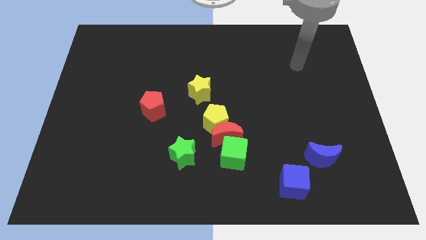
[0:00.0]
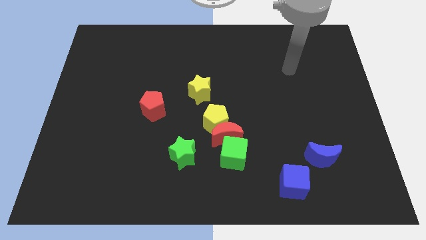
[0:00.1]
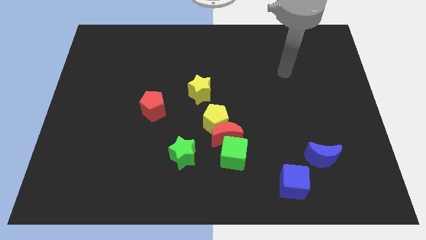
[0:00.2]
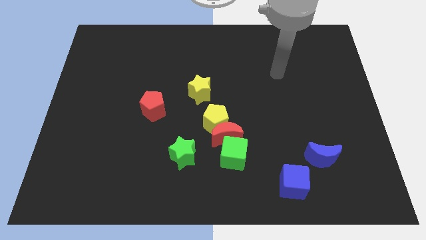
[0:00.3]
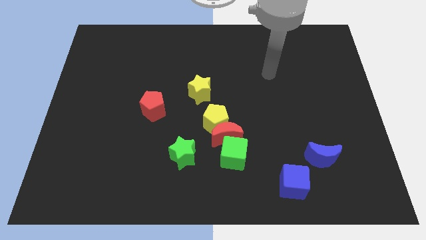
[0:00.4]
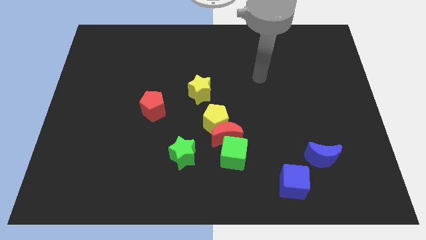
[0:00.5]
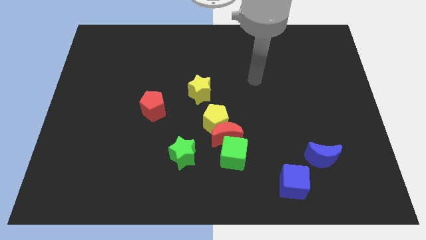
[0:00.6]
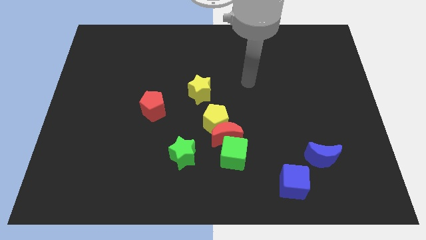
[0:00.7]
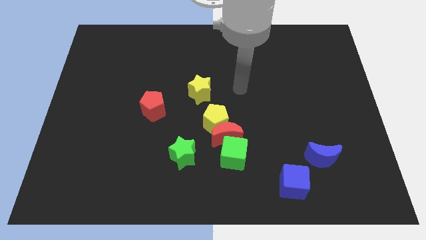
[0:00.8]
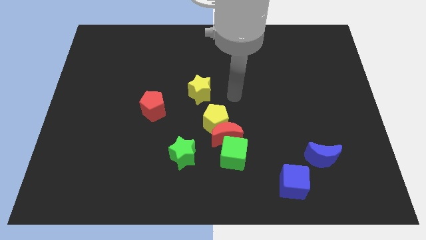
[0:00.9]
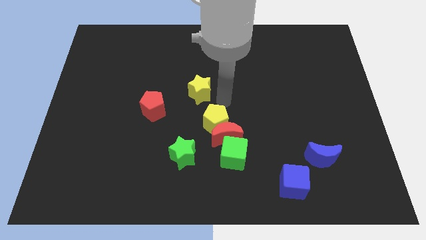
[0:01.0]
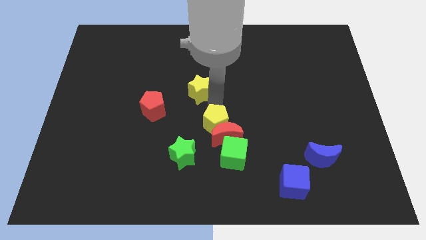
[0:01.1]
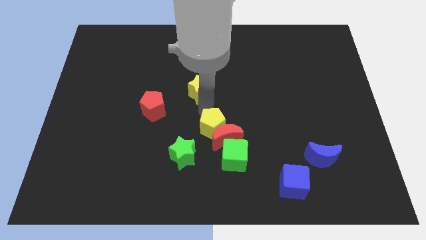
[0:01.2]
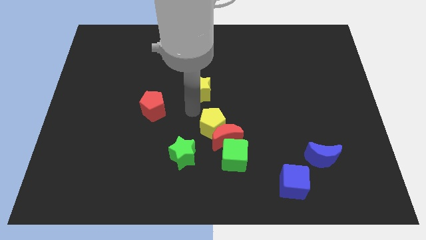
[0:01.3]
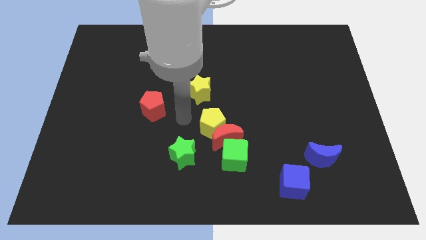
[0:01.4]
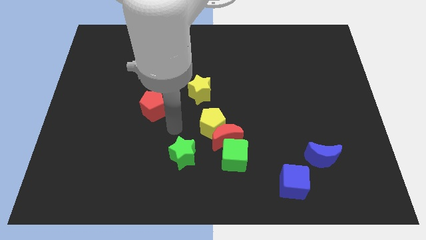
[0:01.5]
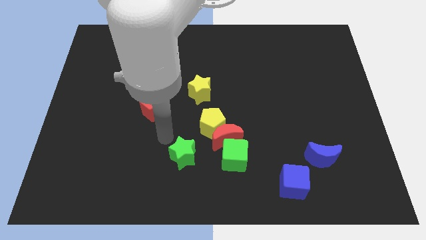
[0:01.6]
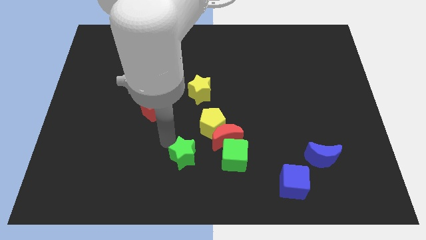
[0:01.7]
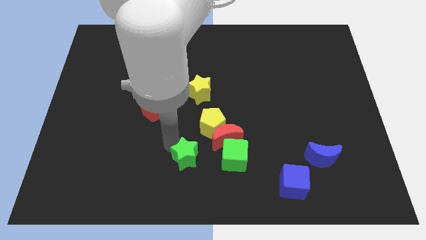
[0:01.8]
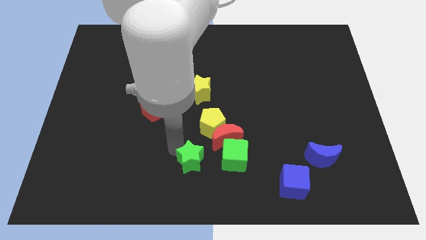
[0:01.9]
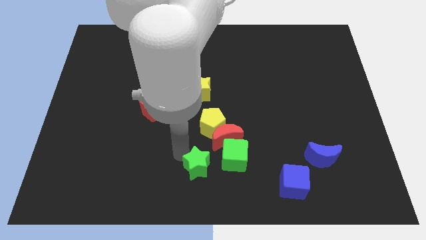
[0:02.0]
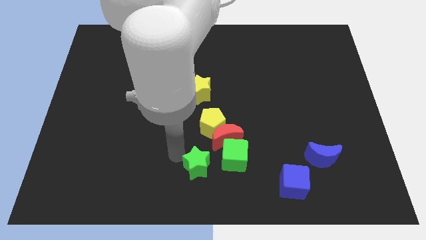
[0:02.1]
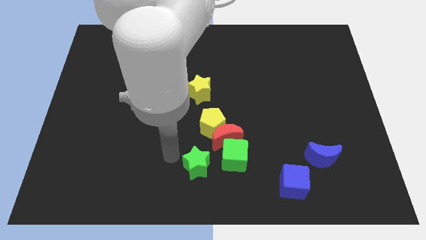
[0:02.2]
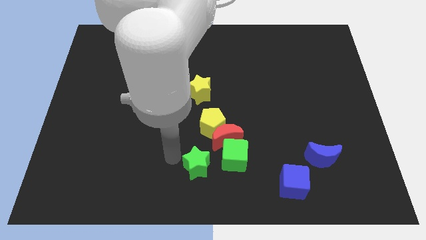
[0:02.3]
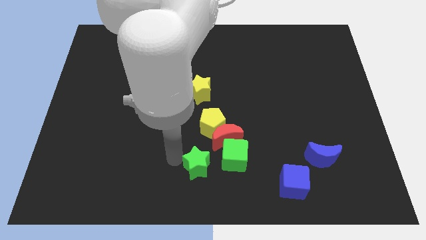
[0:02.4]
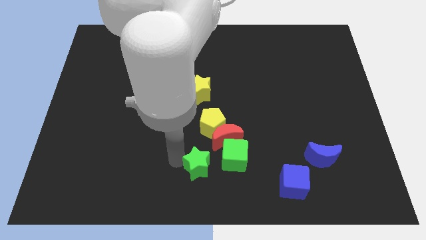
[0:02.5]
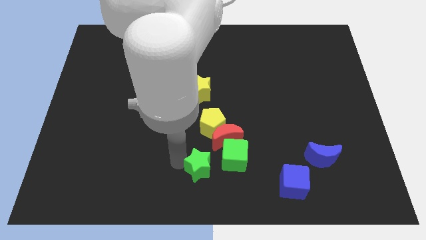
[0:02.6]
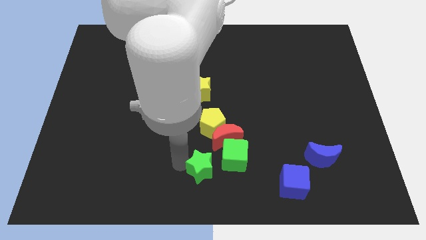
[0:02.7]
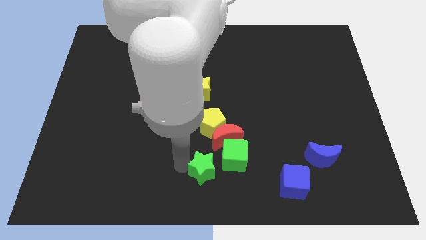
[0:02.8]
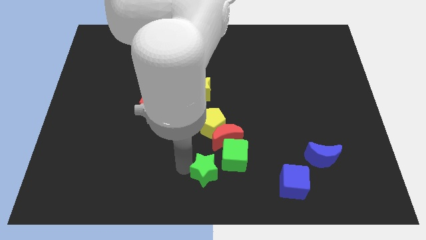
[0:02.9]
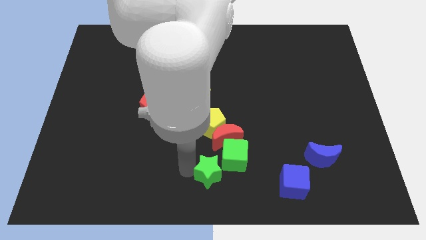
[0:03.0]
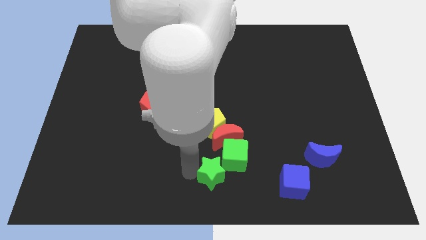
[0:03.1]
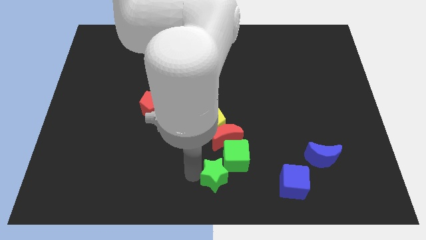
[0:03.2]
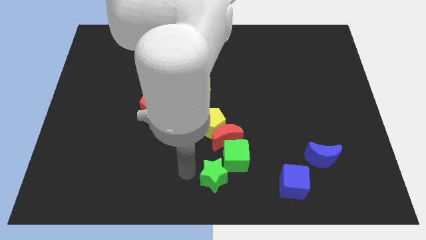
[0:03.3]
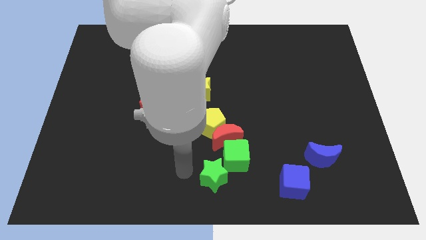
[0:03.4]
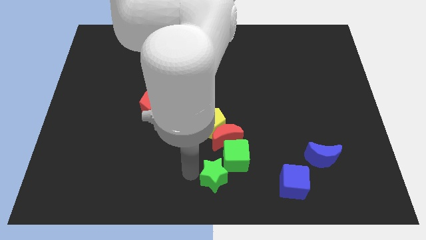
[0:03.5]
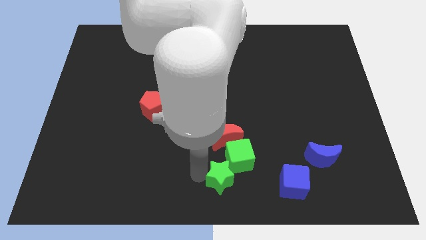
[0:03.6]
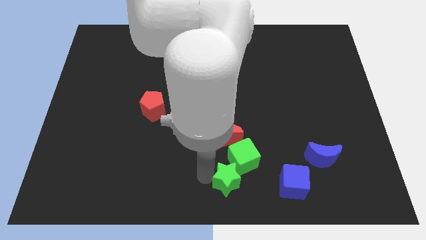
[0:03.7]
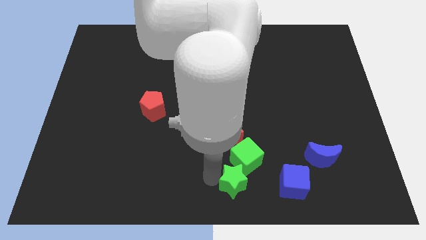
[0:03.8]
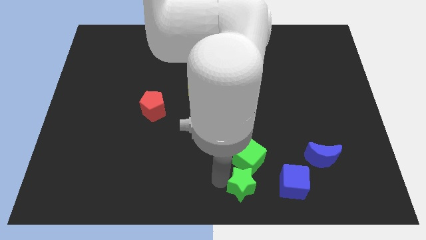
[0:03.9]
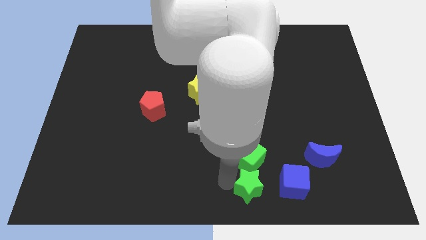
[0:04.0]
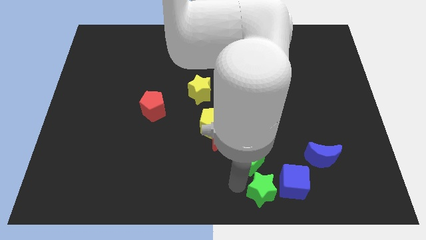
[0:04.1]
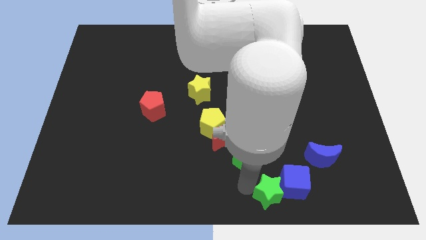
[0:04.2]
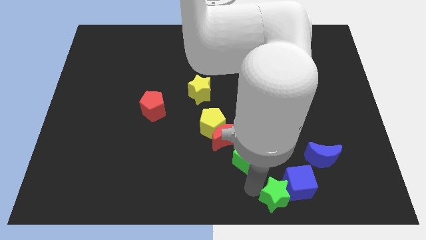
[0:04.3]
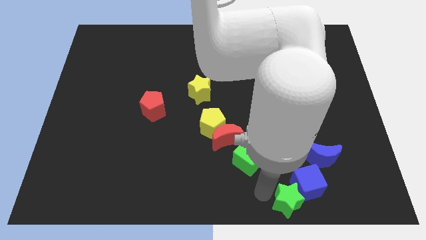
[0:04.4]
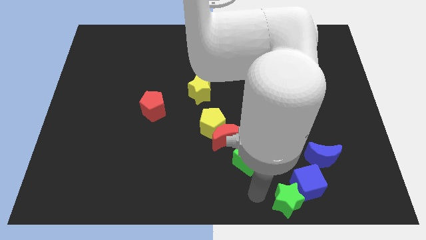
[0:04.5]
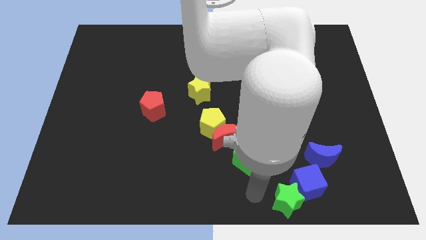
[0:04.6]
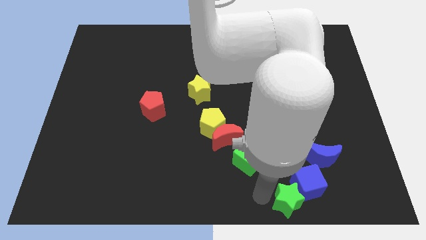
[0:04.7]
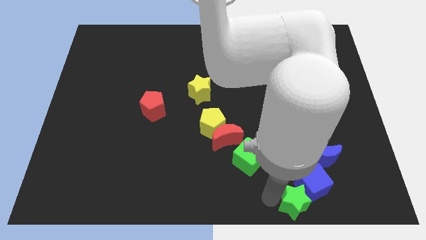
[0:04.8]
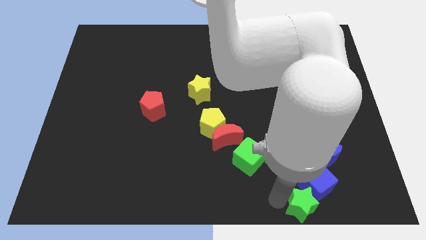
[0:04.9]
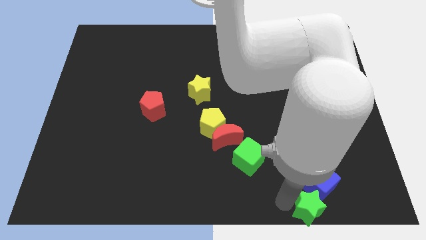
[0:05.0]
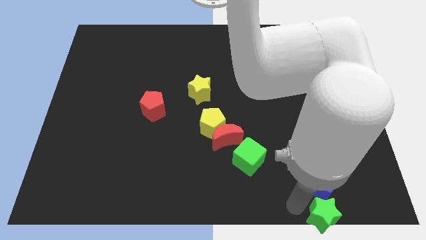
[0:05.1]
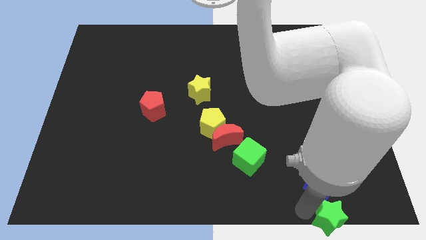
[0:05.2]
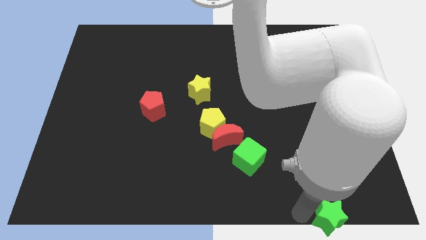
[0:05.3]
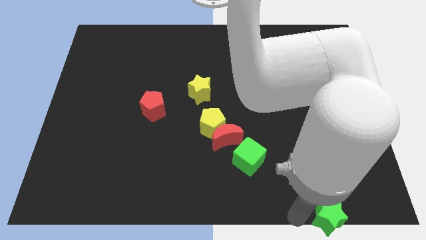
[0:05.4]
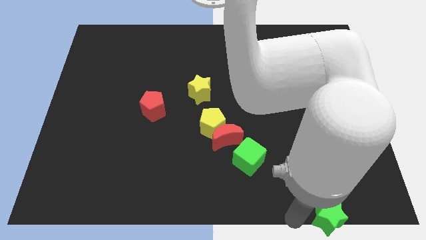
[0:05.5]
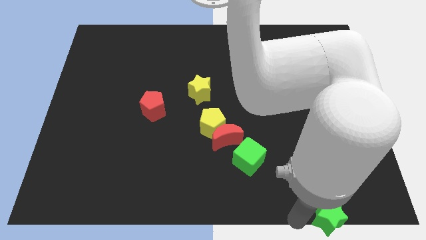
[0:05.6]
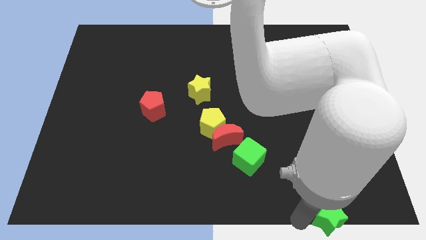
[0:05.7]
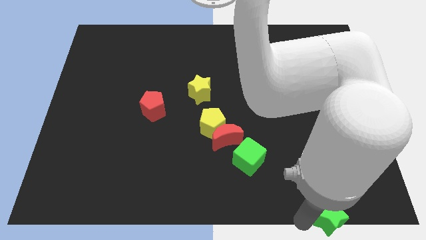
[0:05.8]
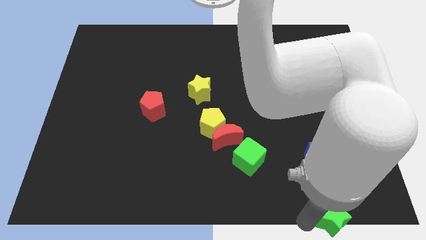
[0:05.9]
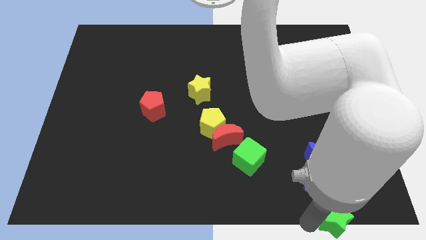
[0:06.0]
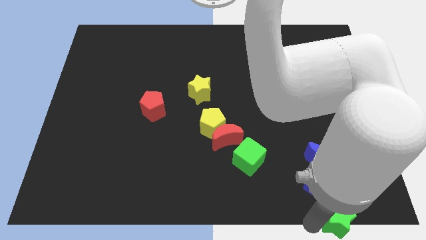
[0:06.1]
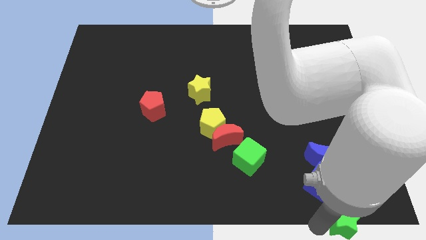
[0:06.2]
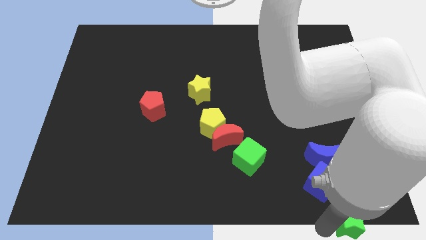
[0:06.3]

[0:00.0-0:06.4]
put the green star to the bottom right of the board
